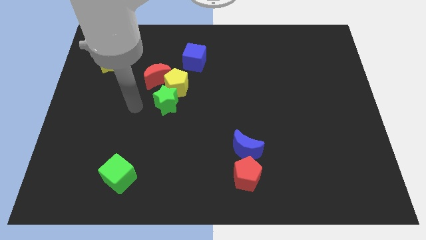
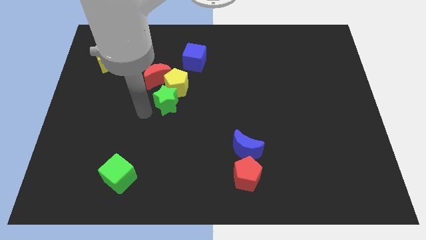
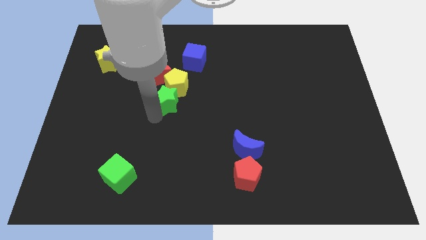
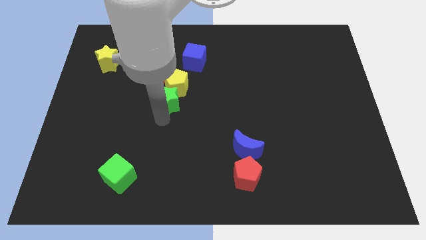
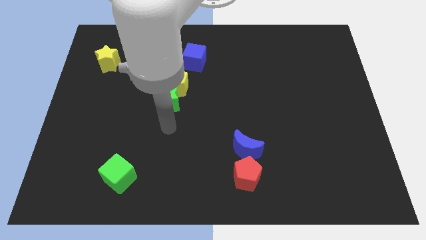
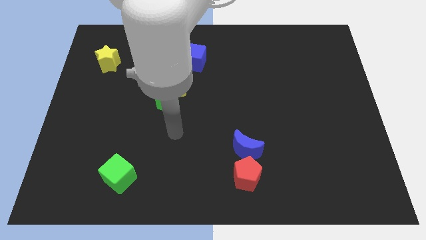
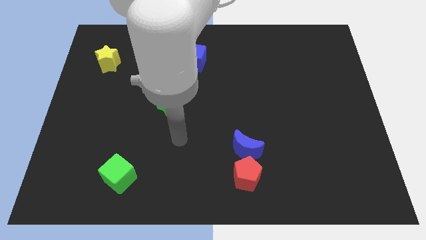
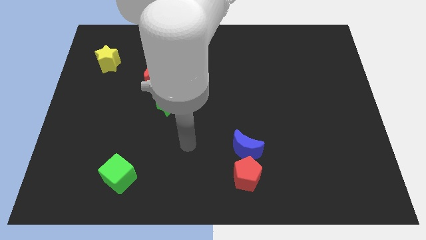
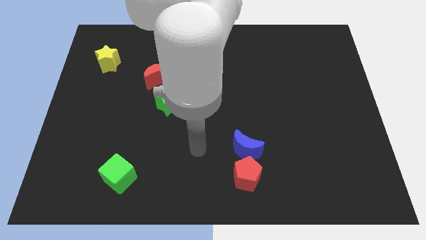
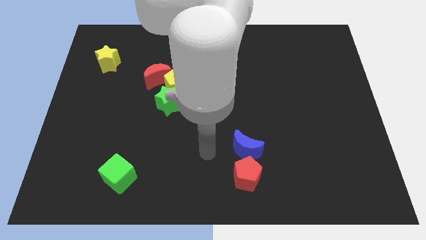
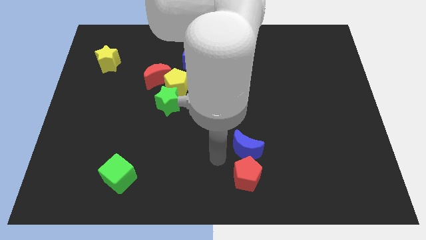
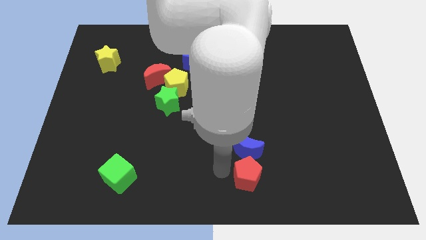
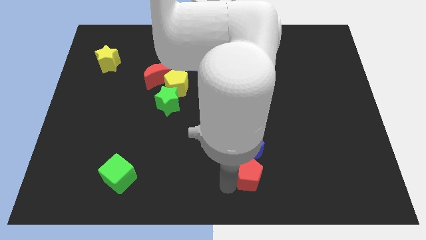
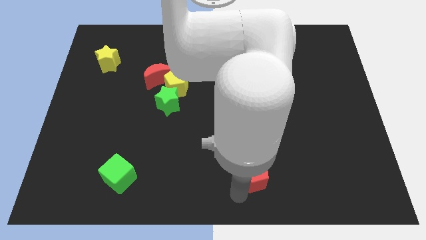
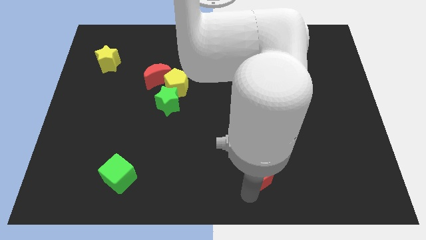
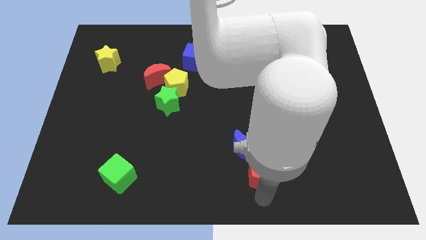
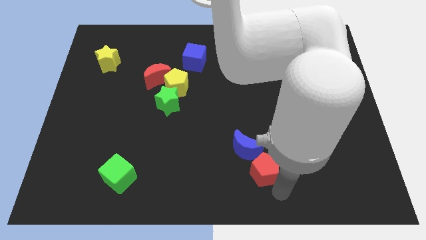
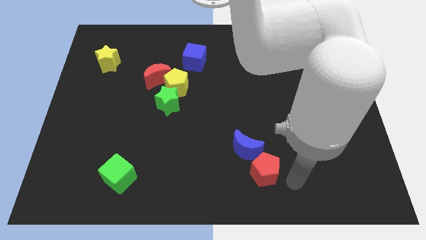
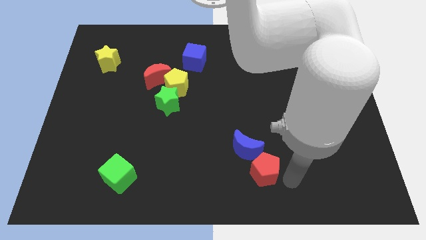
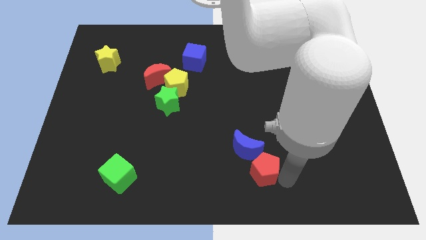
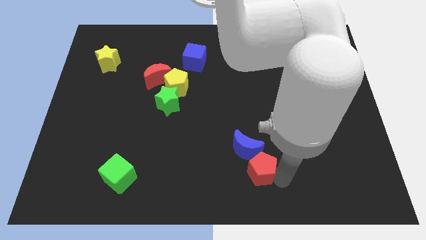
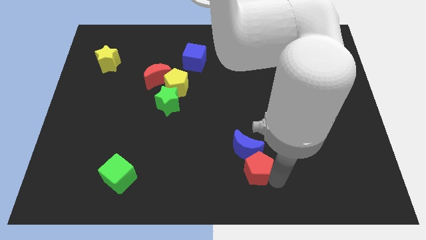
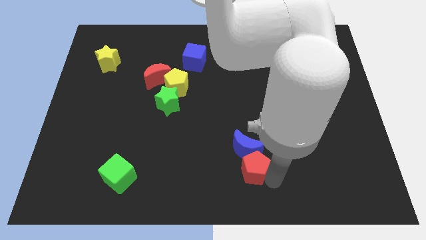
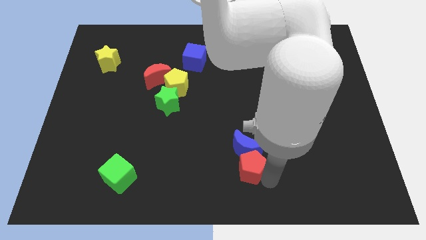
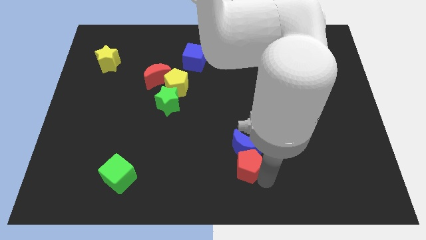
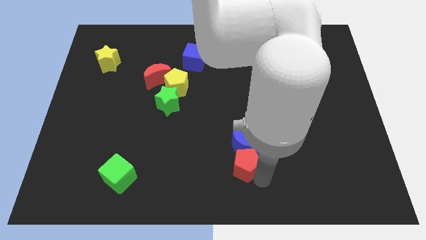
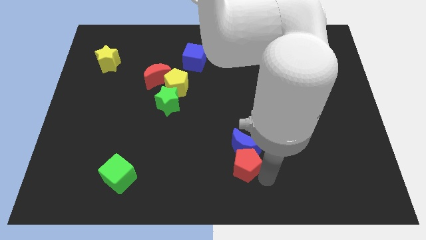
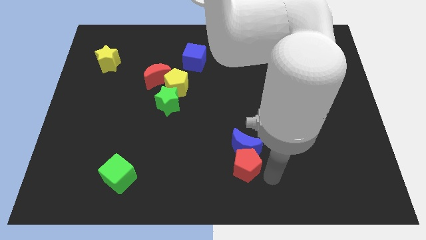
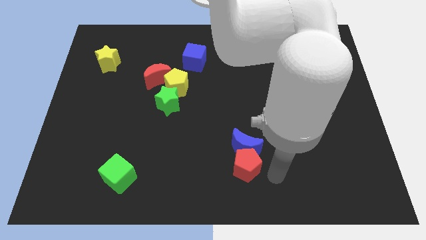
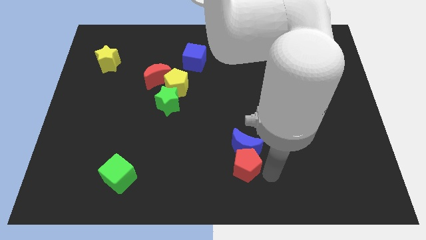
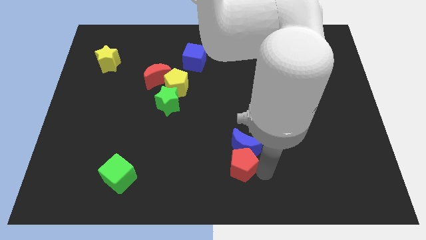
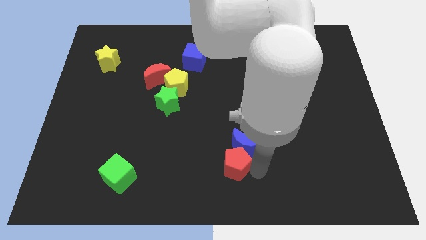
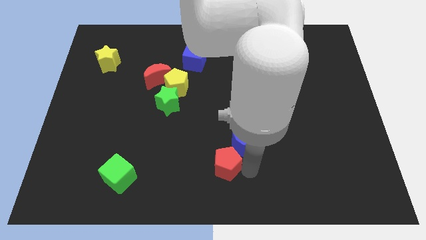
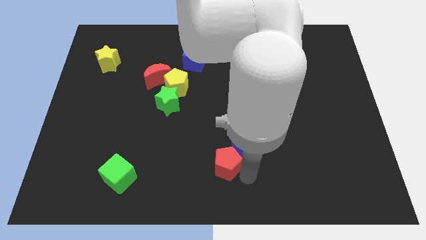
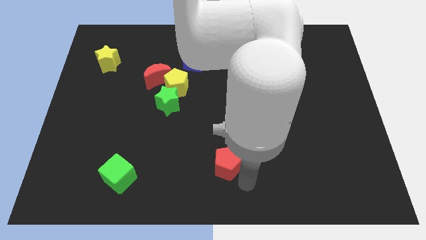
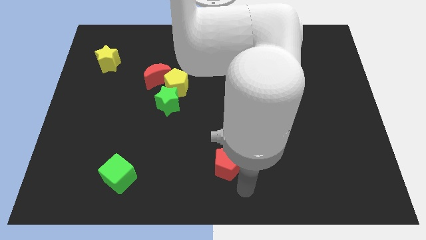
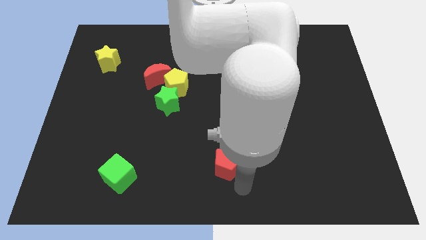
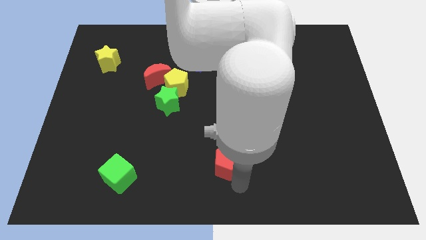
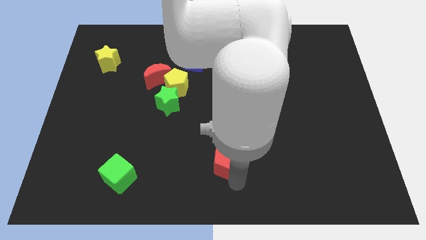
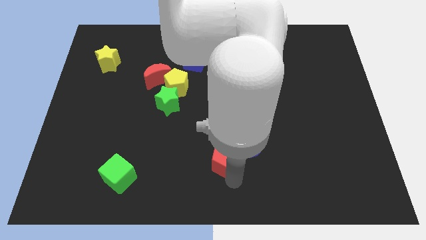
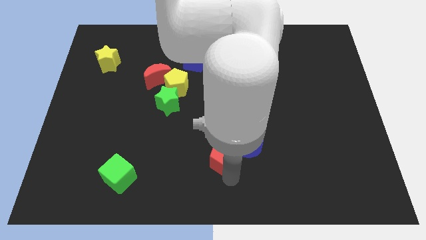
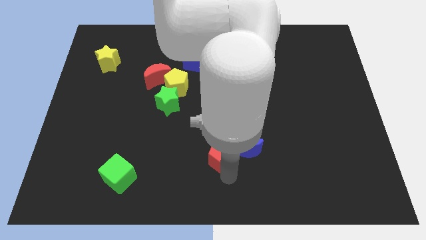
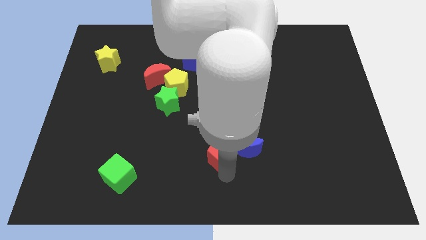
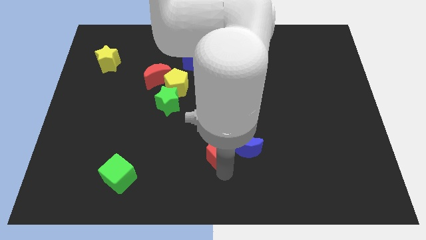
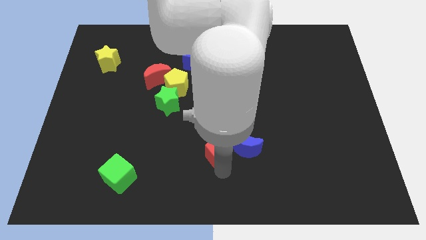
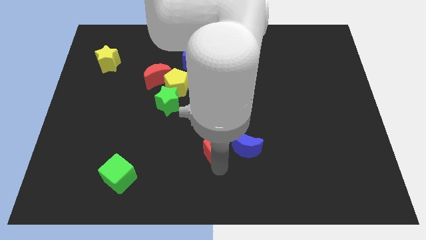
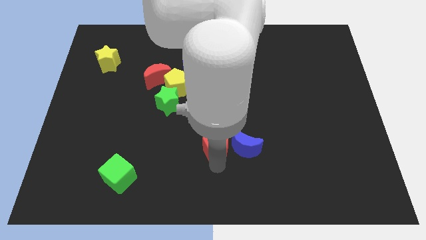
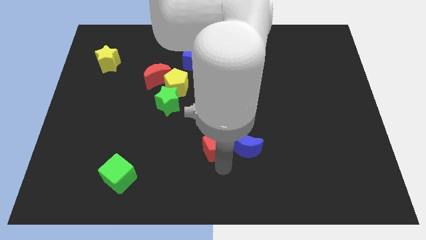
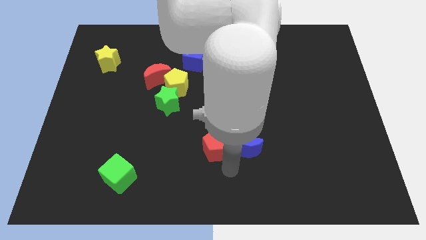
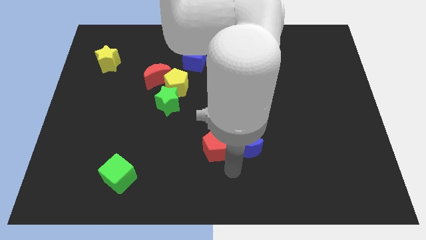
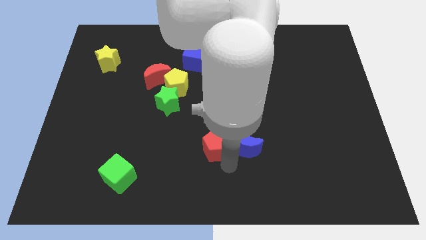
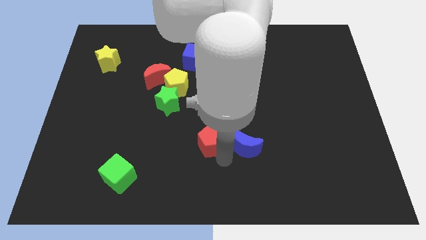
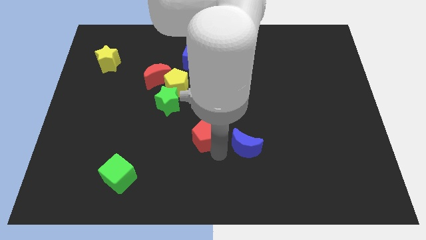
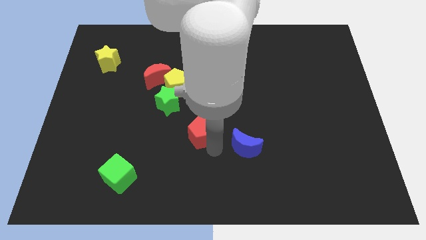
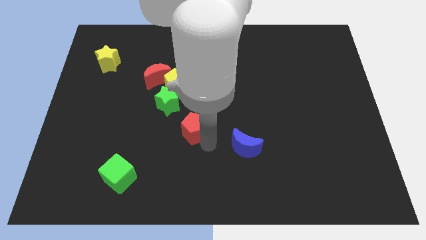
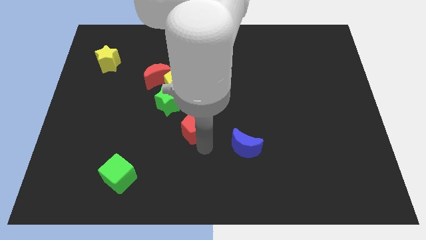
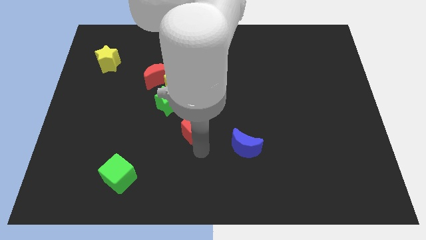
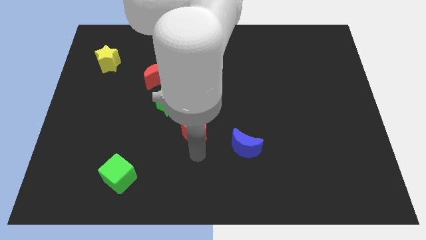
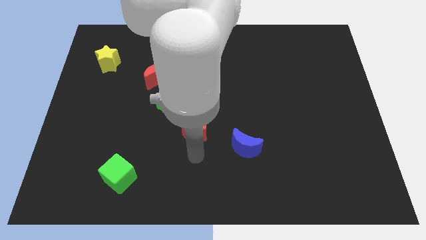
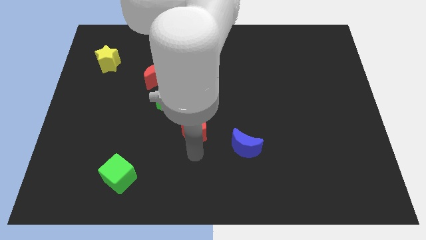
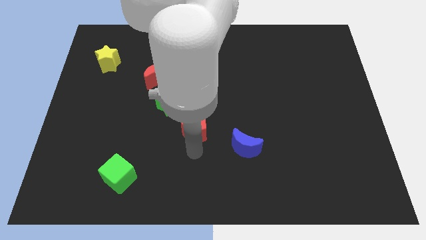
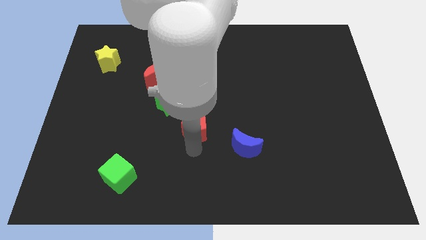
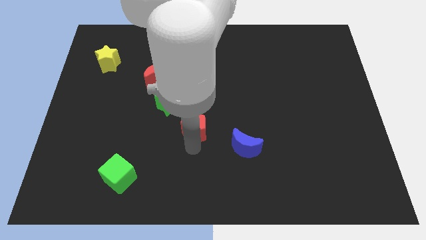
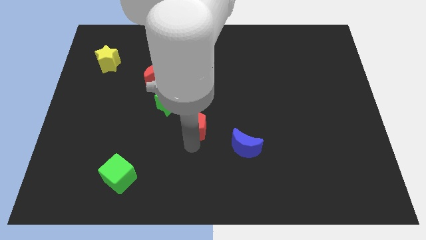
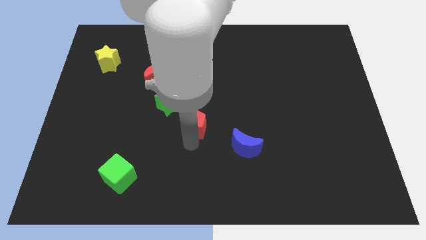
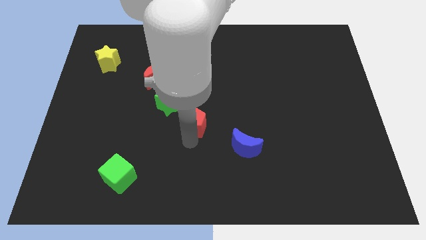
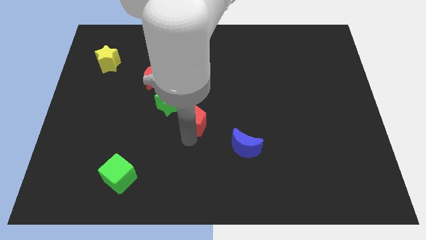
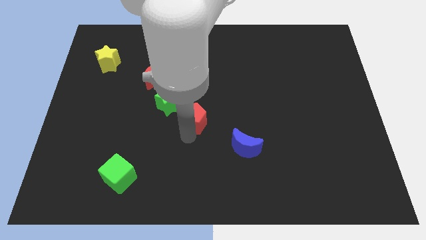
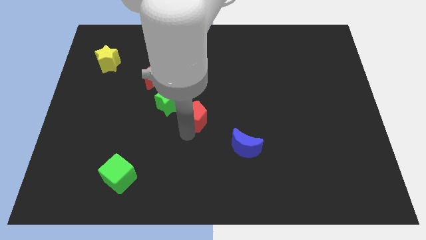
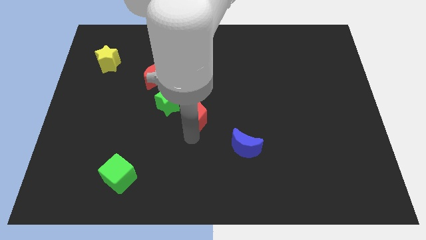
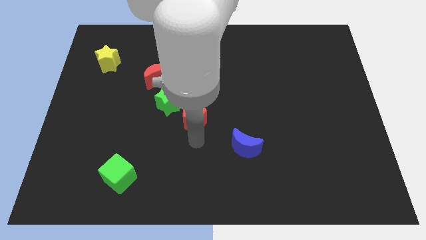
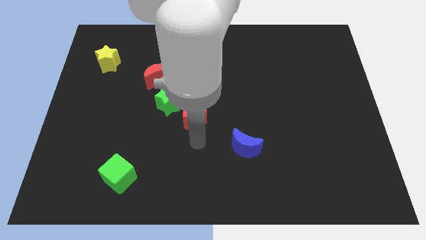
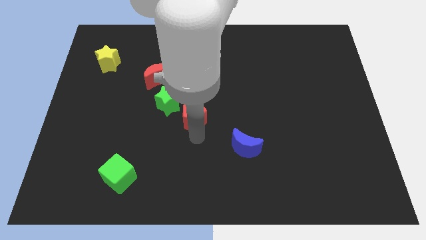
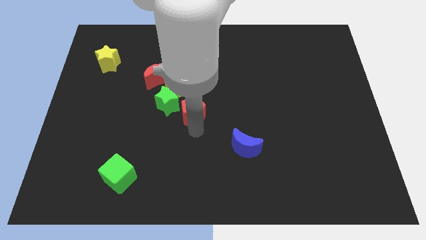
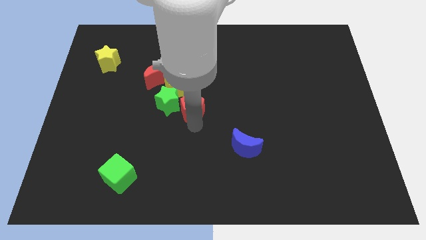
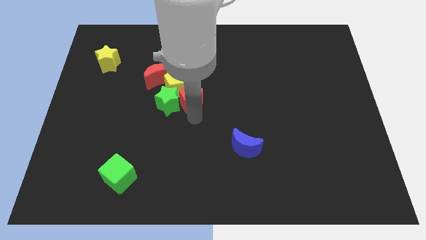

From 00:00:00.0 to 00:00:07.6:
put the red pentagon towards the yellow pentagon

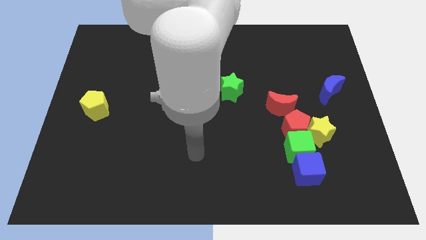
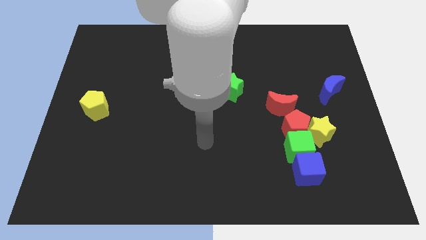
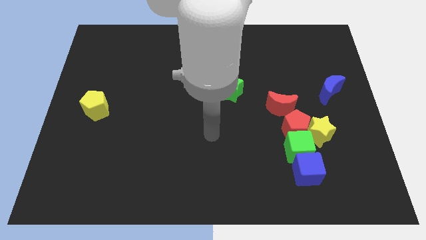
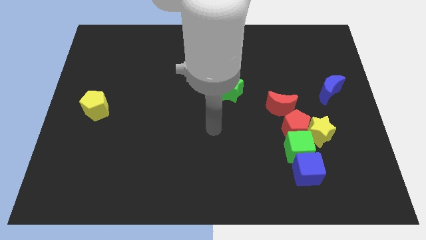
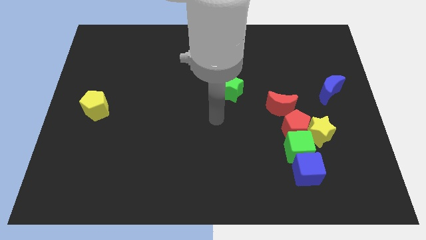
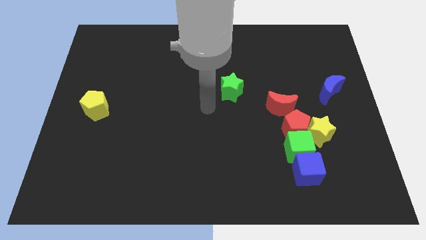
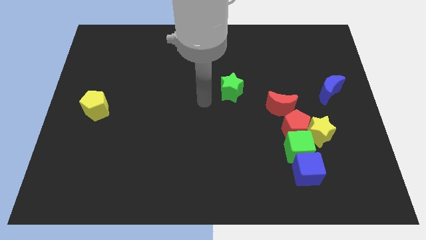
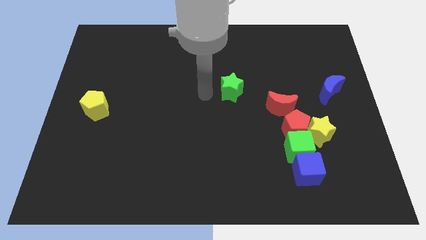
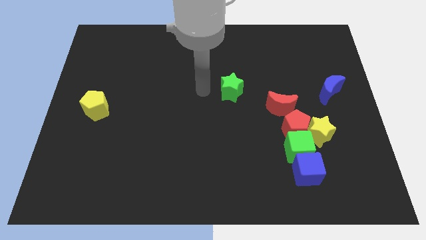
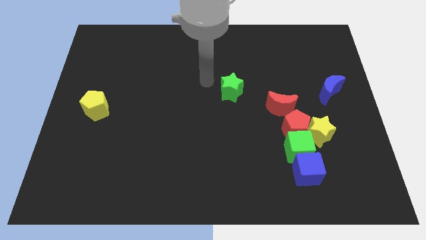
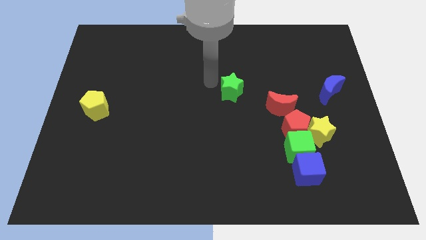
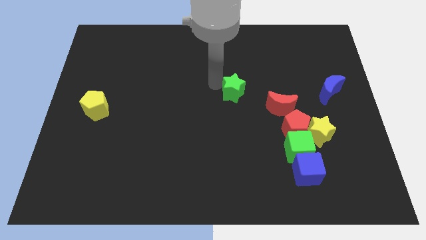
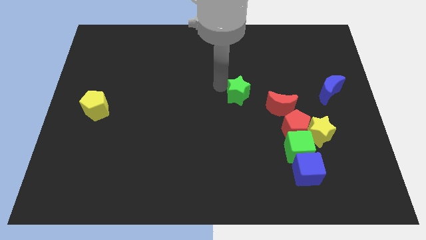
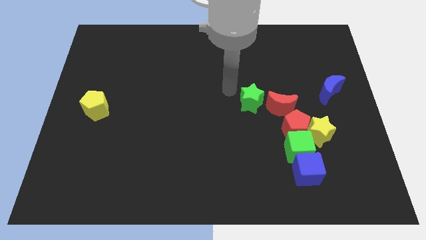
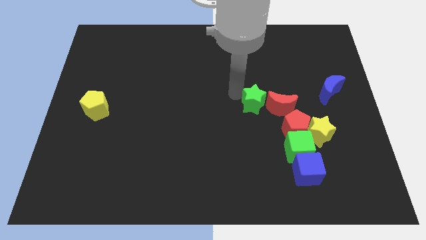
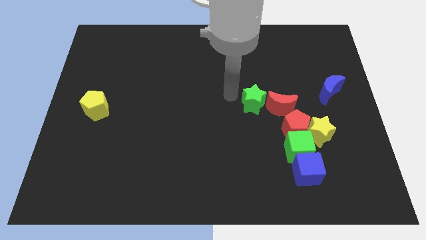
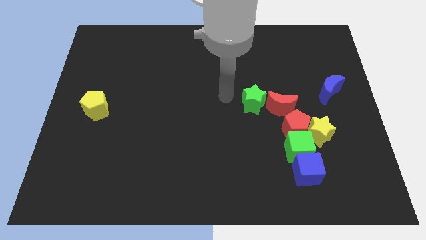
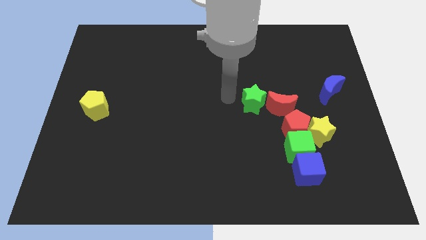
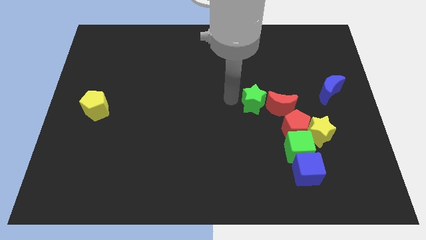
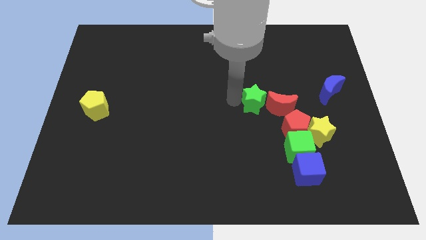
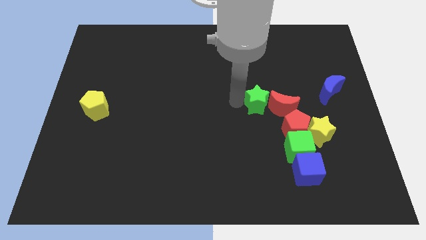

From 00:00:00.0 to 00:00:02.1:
slide the green star close to the red moon
